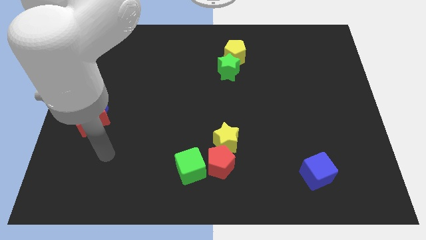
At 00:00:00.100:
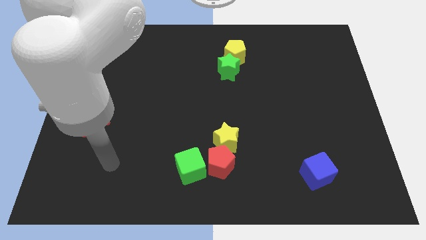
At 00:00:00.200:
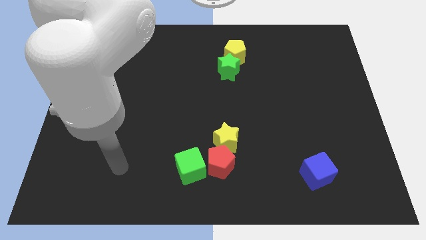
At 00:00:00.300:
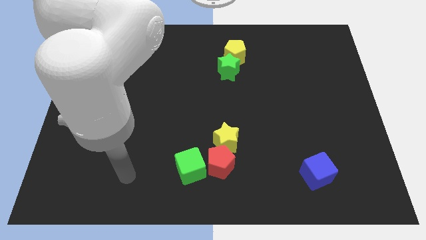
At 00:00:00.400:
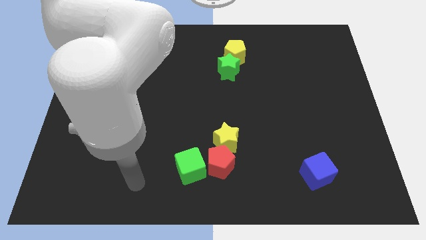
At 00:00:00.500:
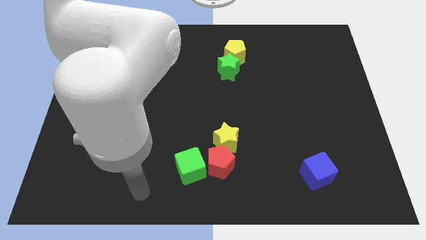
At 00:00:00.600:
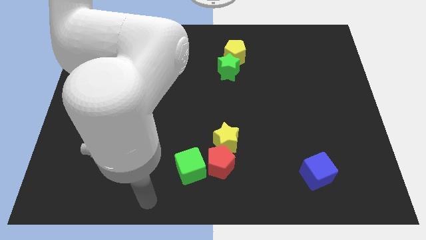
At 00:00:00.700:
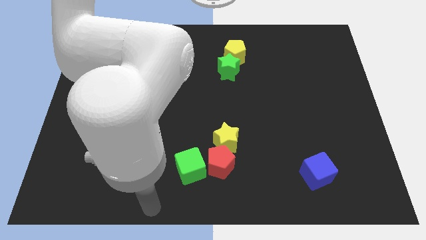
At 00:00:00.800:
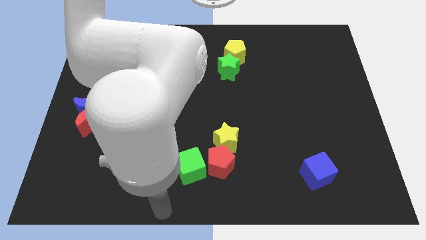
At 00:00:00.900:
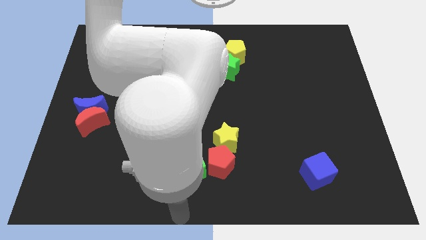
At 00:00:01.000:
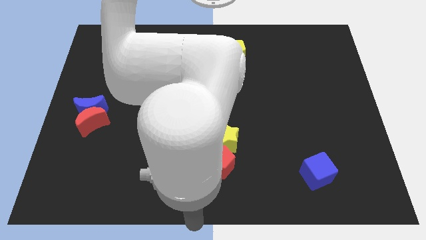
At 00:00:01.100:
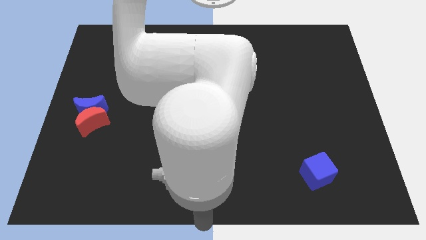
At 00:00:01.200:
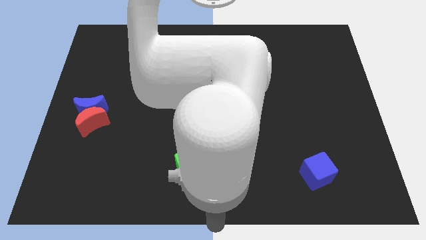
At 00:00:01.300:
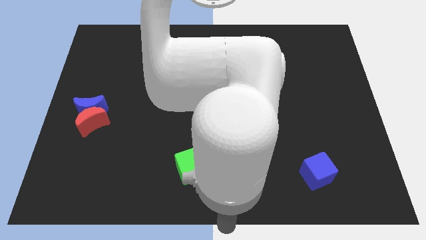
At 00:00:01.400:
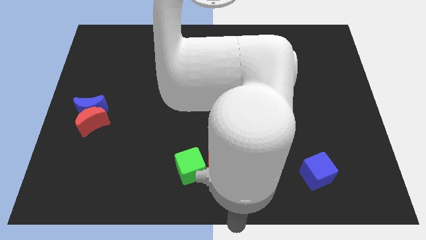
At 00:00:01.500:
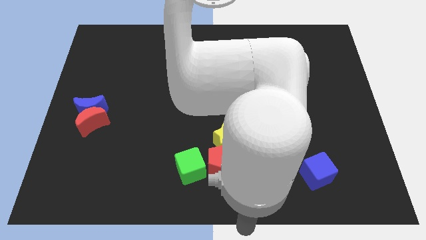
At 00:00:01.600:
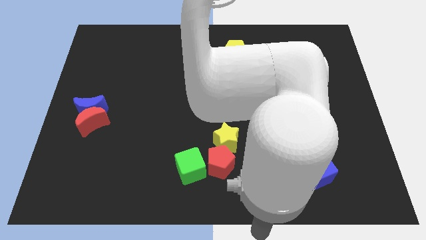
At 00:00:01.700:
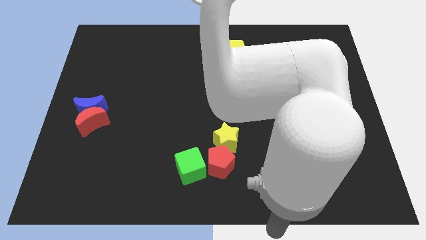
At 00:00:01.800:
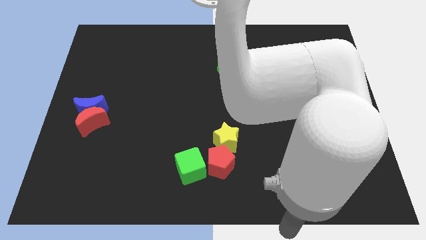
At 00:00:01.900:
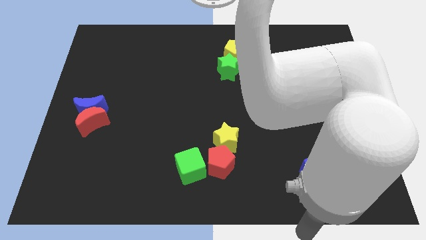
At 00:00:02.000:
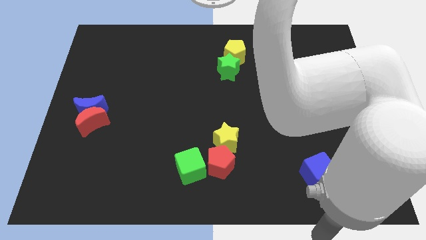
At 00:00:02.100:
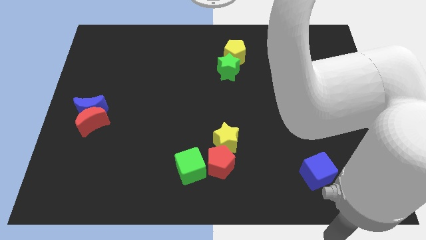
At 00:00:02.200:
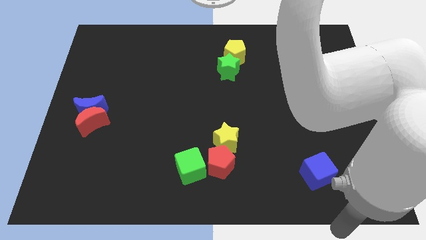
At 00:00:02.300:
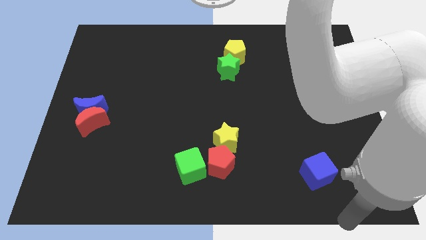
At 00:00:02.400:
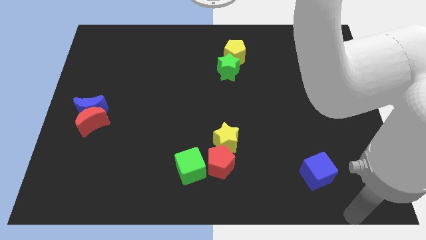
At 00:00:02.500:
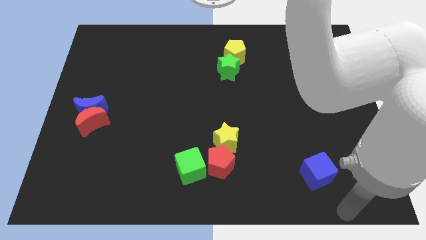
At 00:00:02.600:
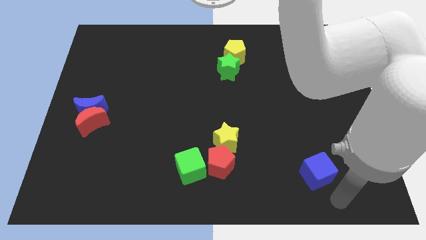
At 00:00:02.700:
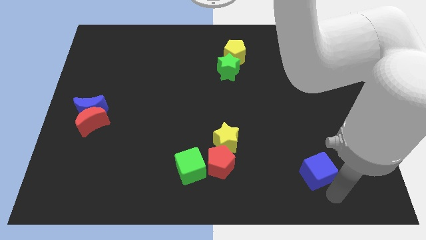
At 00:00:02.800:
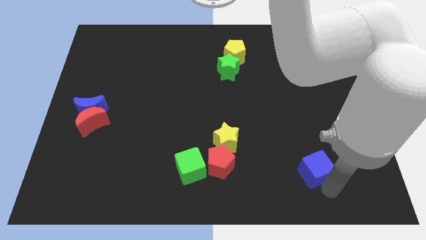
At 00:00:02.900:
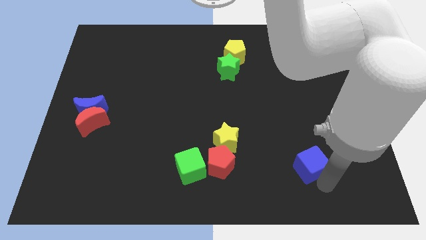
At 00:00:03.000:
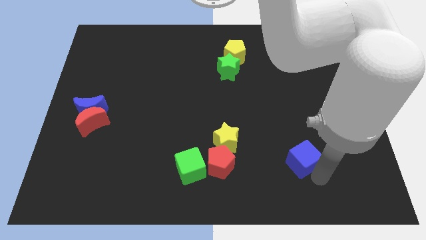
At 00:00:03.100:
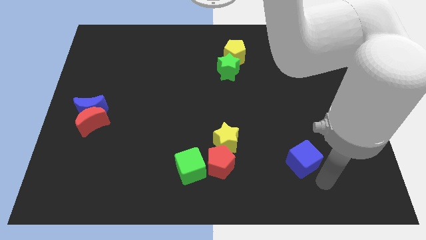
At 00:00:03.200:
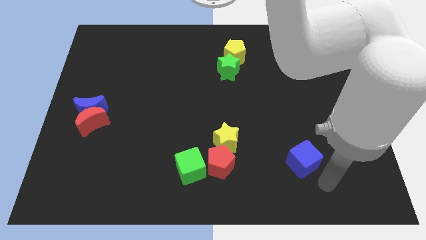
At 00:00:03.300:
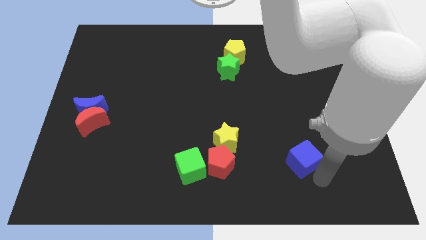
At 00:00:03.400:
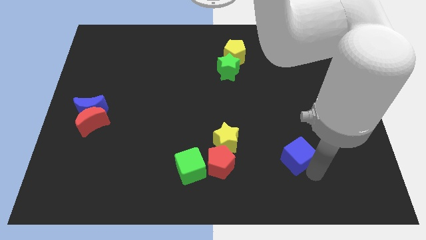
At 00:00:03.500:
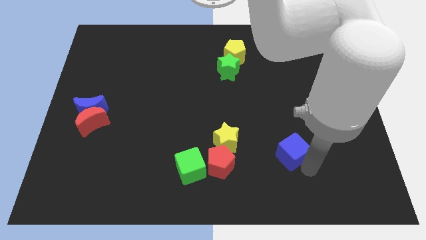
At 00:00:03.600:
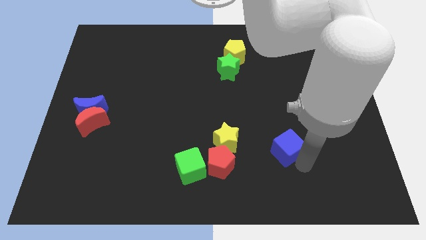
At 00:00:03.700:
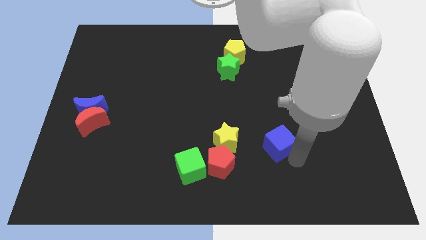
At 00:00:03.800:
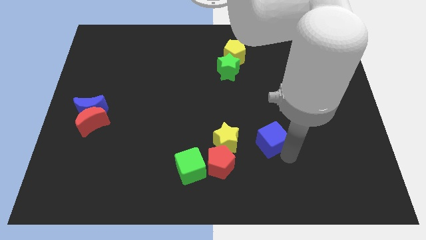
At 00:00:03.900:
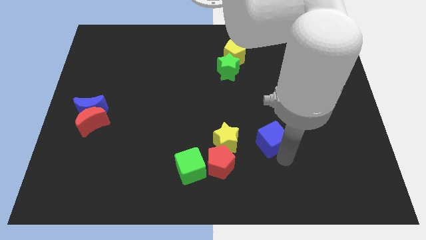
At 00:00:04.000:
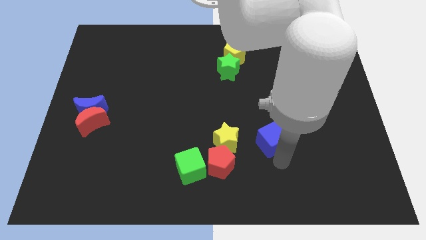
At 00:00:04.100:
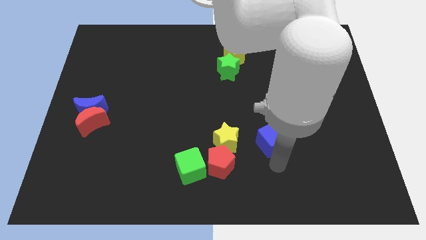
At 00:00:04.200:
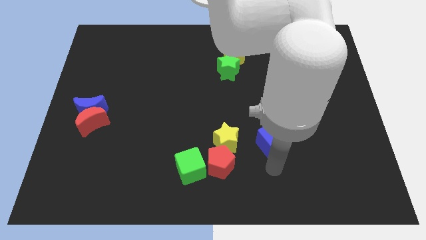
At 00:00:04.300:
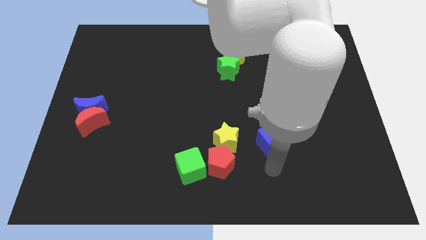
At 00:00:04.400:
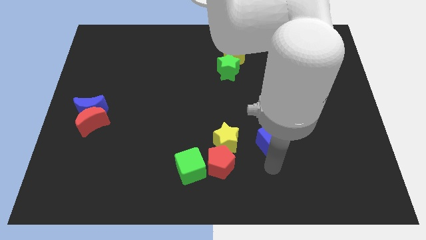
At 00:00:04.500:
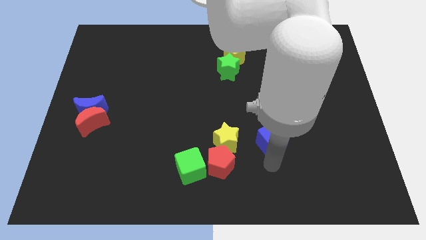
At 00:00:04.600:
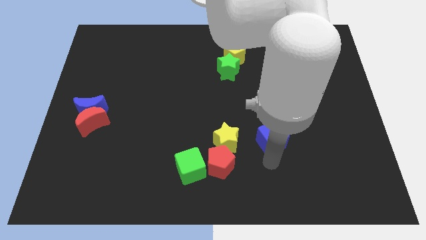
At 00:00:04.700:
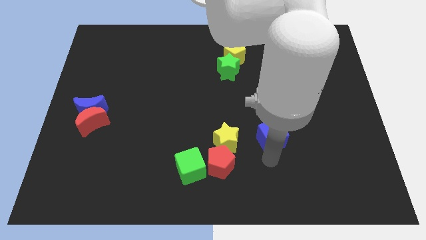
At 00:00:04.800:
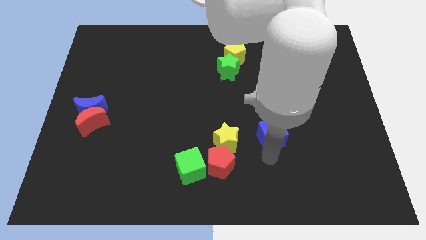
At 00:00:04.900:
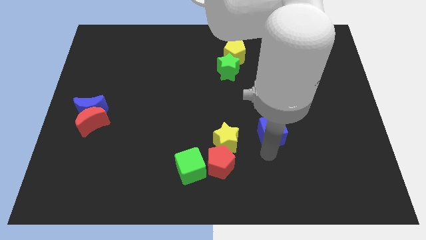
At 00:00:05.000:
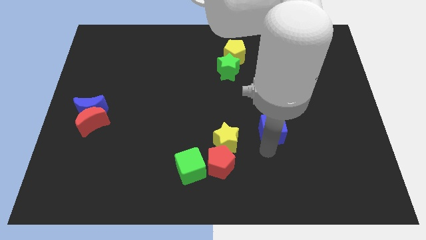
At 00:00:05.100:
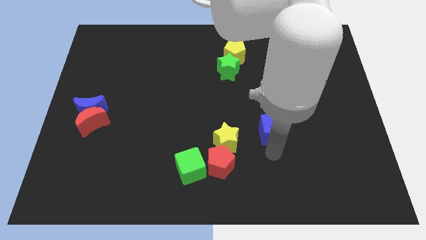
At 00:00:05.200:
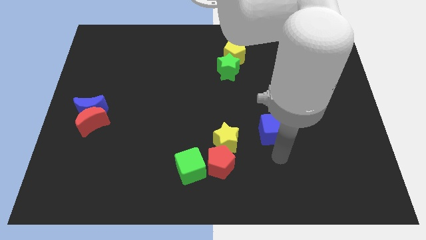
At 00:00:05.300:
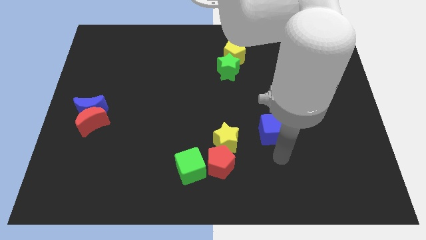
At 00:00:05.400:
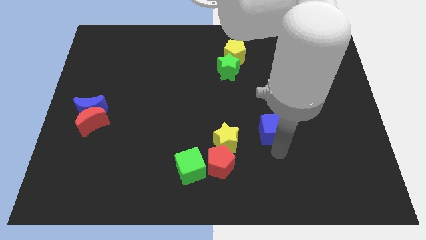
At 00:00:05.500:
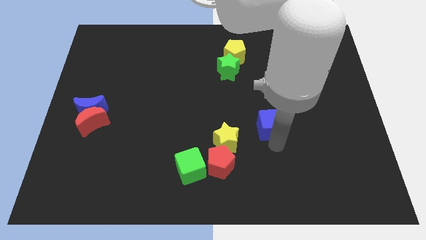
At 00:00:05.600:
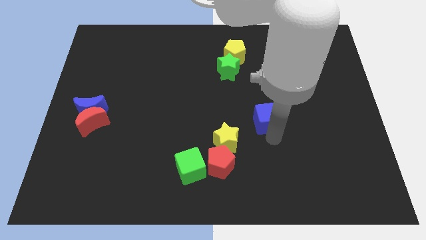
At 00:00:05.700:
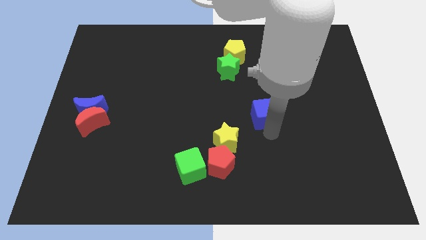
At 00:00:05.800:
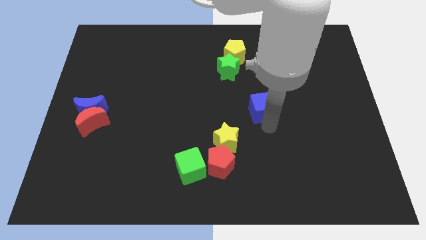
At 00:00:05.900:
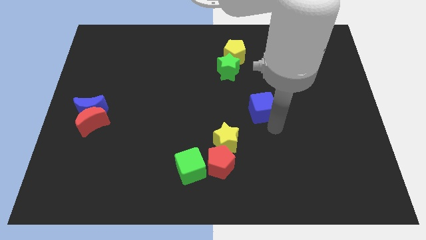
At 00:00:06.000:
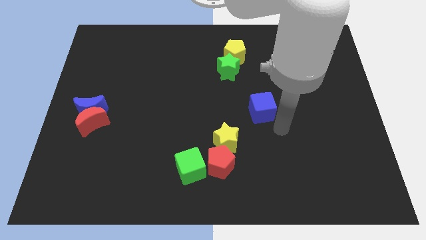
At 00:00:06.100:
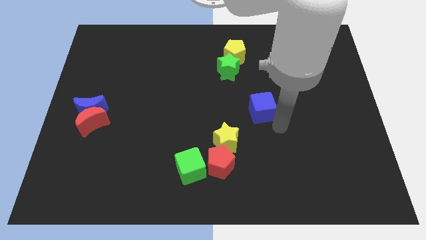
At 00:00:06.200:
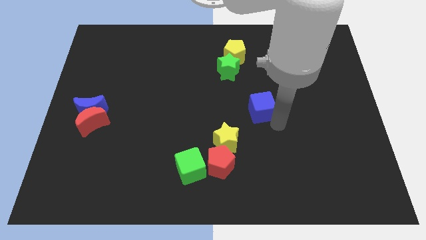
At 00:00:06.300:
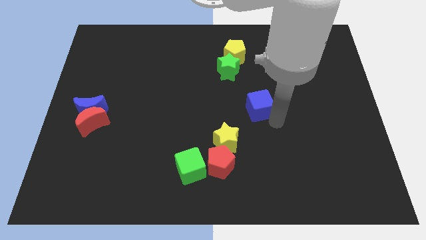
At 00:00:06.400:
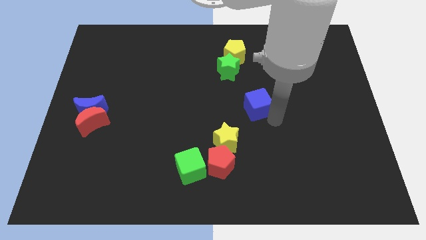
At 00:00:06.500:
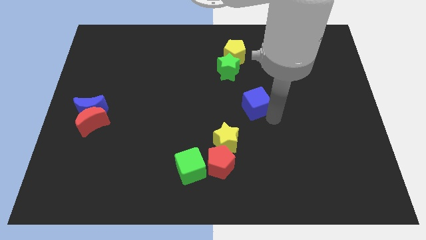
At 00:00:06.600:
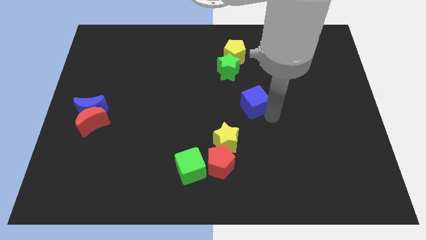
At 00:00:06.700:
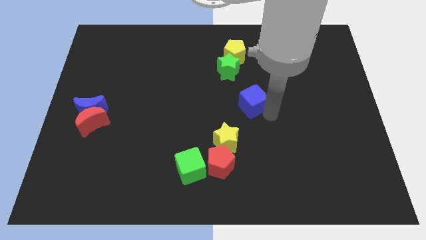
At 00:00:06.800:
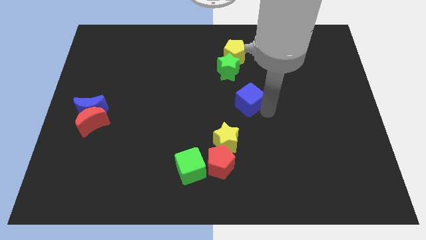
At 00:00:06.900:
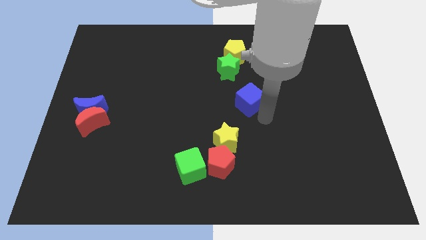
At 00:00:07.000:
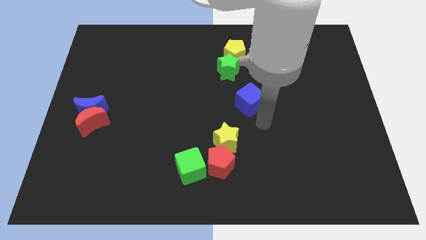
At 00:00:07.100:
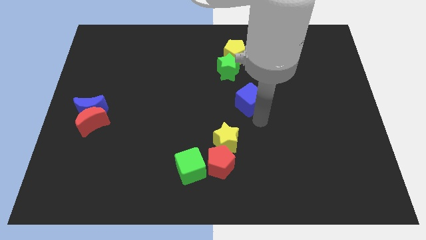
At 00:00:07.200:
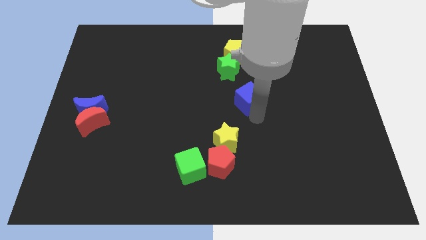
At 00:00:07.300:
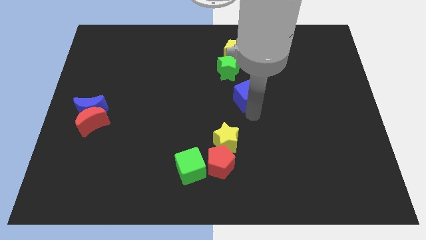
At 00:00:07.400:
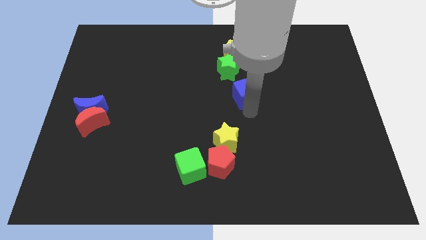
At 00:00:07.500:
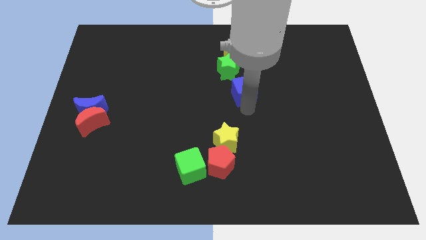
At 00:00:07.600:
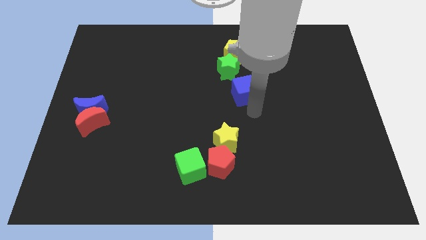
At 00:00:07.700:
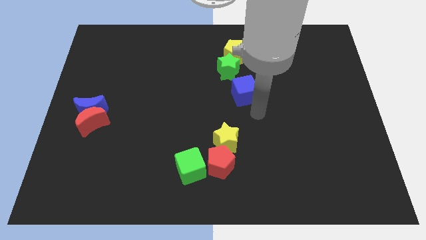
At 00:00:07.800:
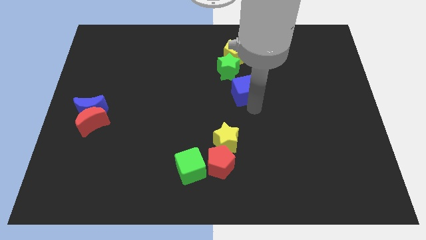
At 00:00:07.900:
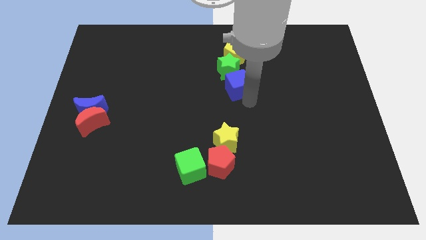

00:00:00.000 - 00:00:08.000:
put the blue cube next to the green star
